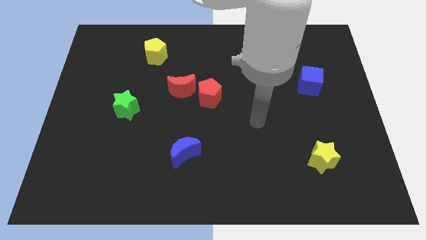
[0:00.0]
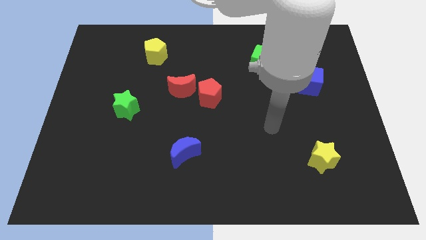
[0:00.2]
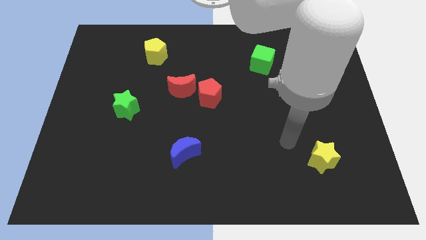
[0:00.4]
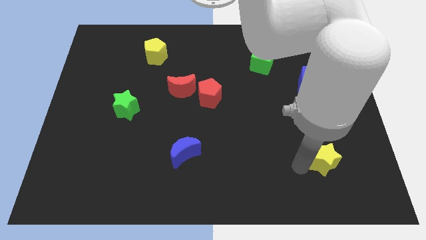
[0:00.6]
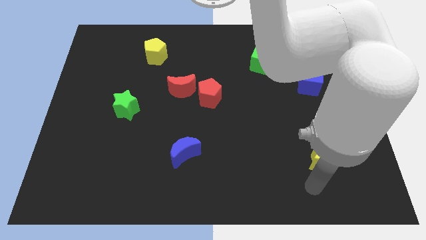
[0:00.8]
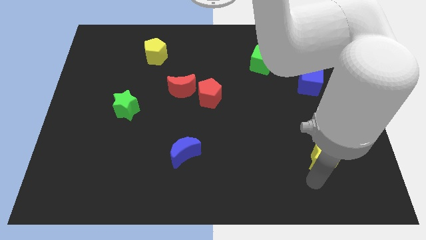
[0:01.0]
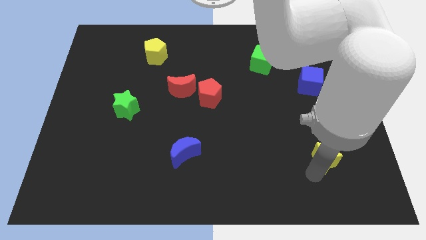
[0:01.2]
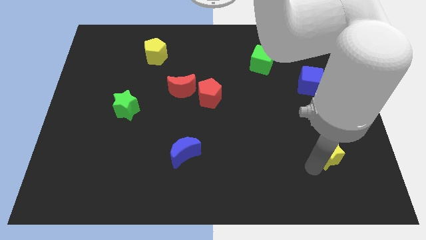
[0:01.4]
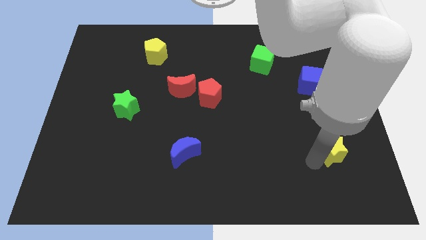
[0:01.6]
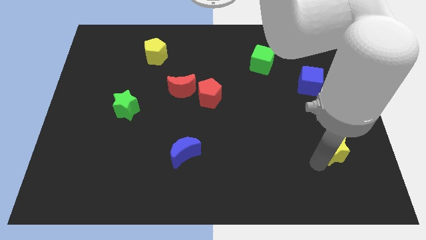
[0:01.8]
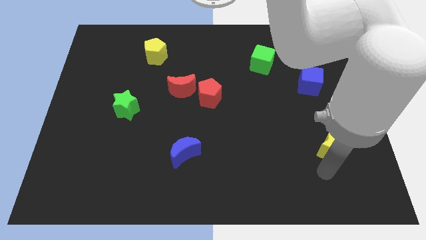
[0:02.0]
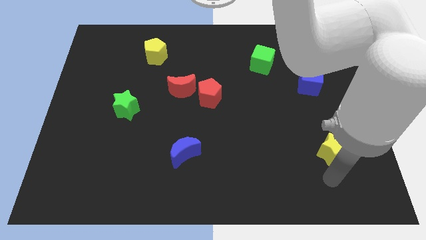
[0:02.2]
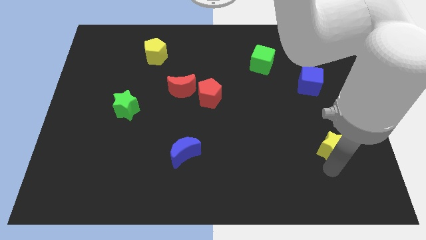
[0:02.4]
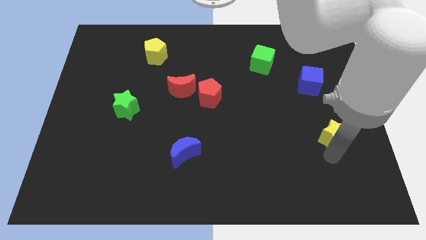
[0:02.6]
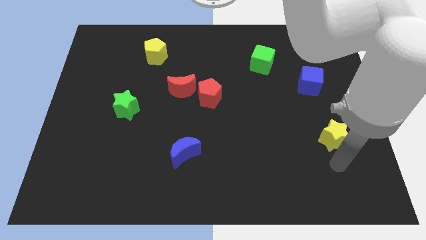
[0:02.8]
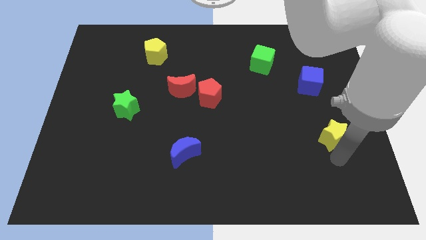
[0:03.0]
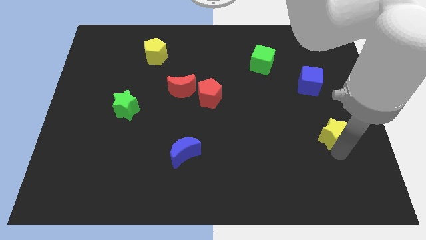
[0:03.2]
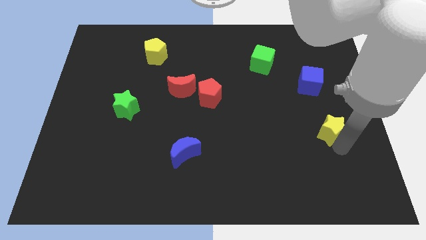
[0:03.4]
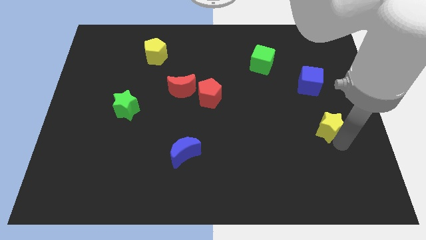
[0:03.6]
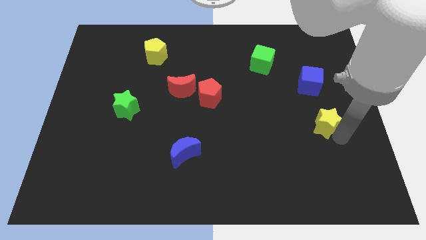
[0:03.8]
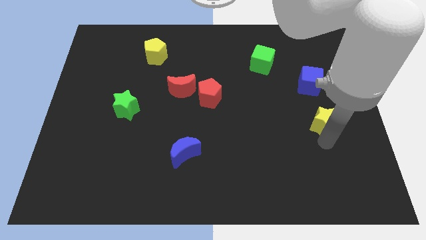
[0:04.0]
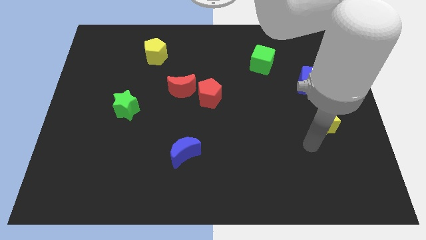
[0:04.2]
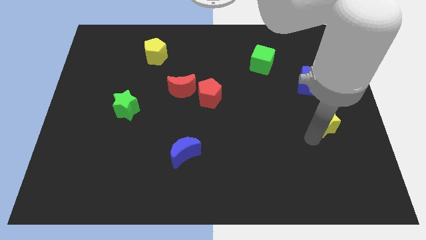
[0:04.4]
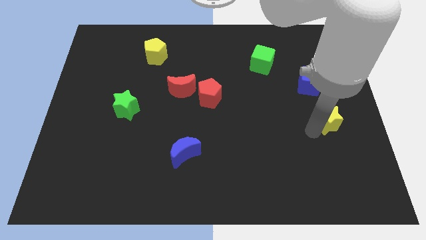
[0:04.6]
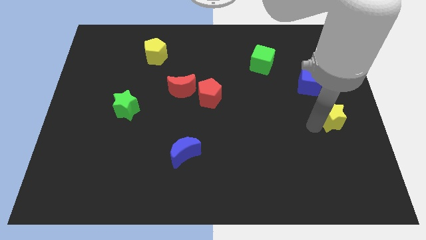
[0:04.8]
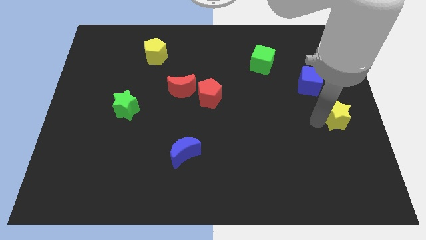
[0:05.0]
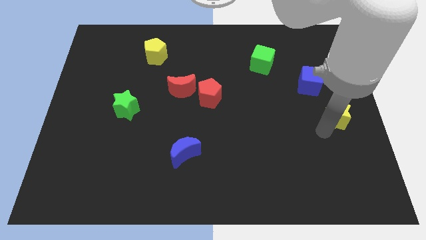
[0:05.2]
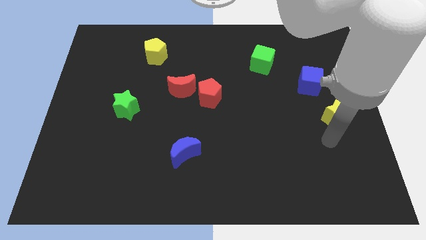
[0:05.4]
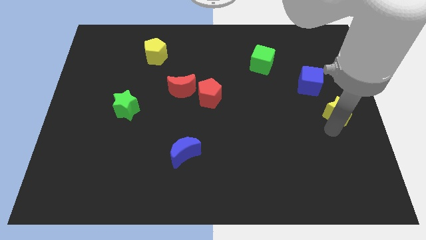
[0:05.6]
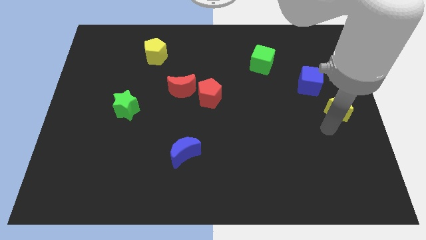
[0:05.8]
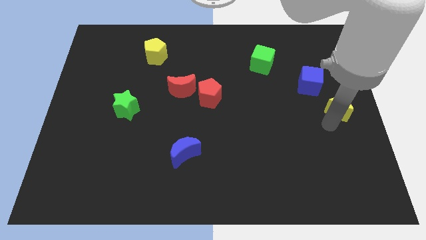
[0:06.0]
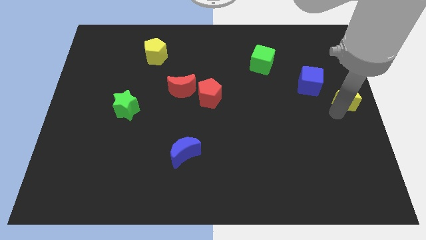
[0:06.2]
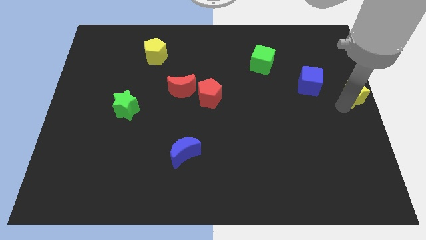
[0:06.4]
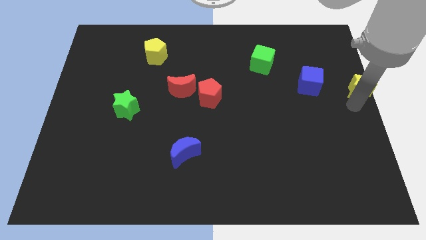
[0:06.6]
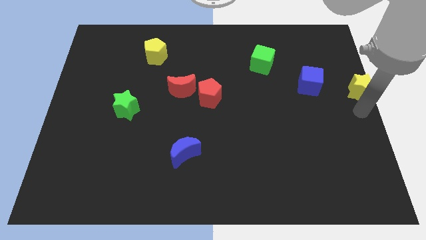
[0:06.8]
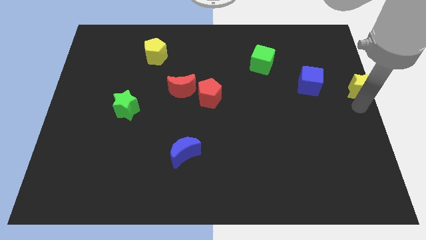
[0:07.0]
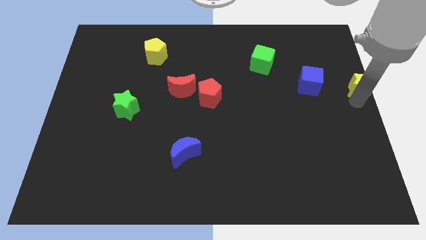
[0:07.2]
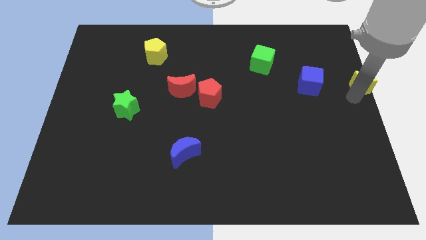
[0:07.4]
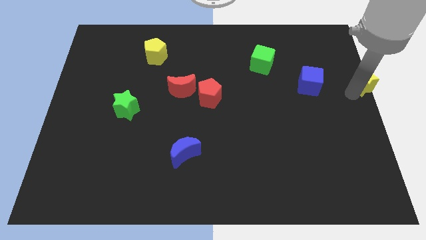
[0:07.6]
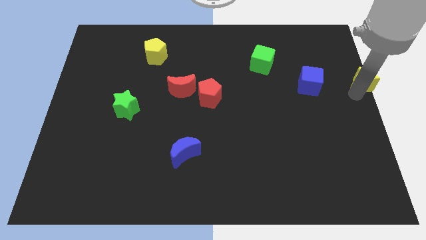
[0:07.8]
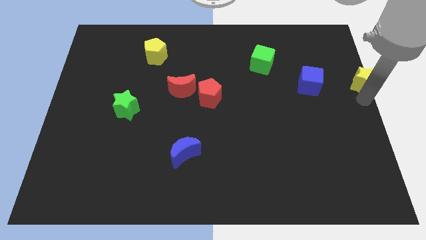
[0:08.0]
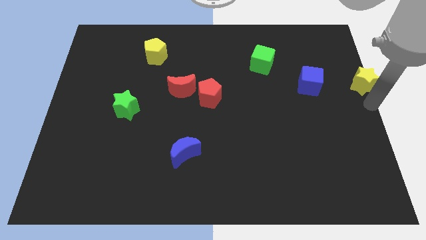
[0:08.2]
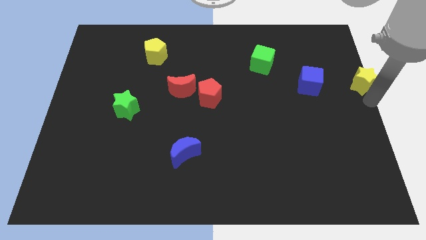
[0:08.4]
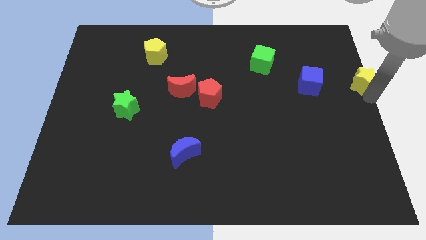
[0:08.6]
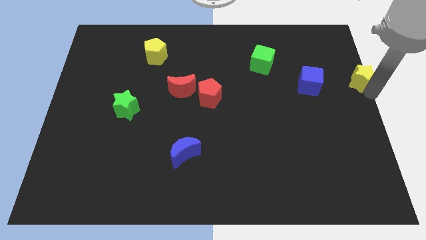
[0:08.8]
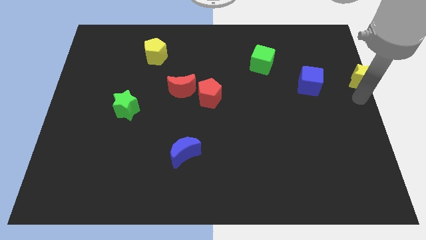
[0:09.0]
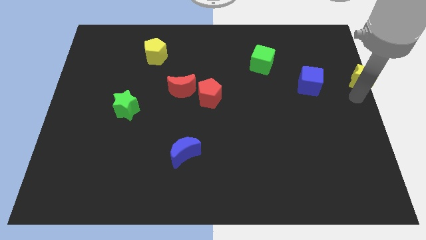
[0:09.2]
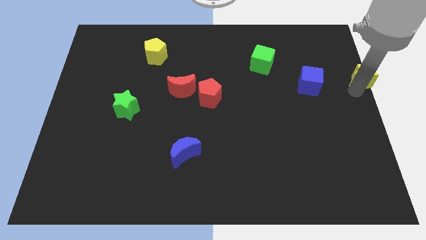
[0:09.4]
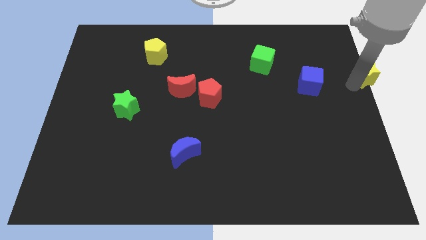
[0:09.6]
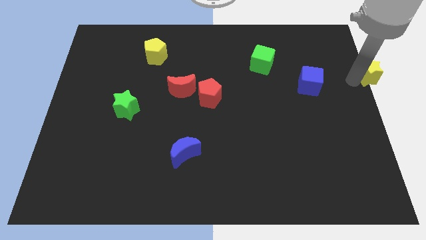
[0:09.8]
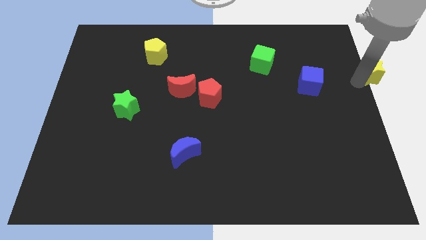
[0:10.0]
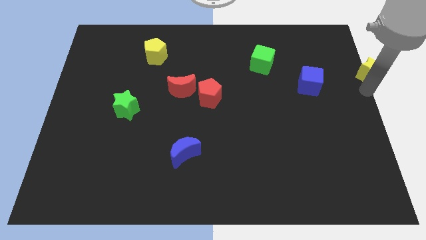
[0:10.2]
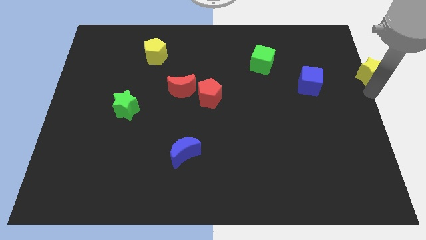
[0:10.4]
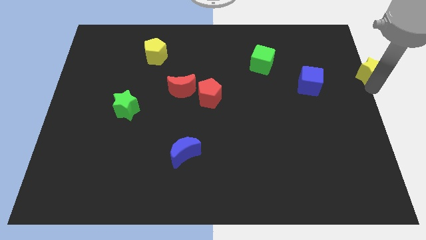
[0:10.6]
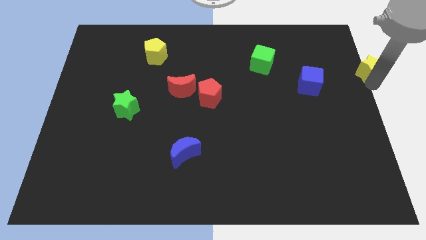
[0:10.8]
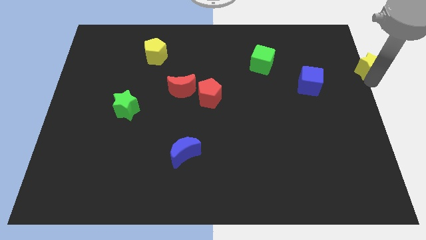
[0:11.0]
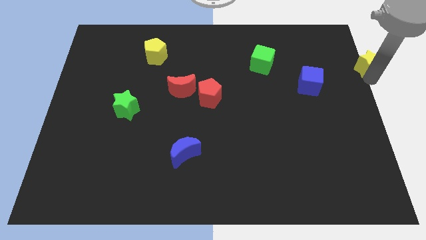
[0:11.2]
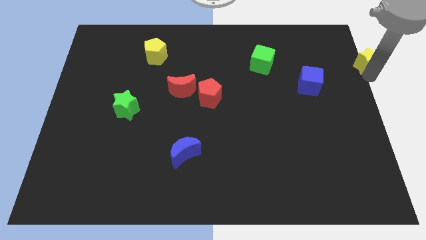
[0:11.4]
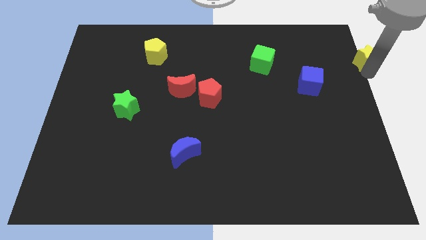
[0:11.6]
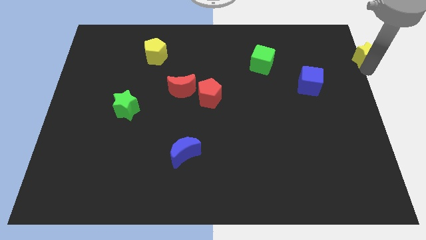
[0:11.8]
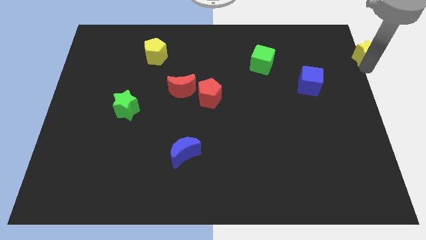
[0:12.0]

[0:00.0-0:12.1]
move the yellow star to the top right
